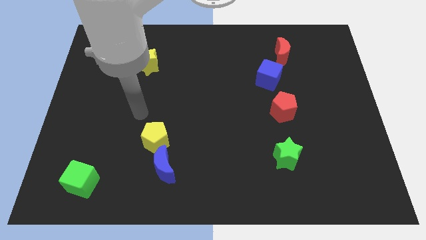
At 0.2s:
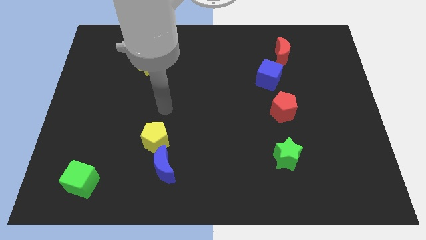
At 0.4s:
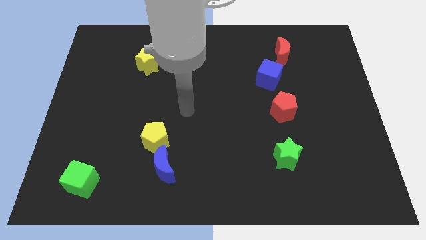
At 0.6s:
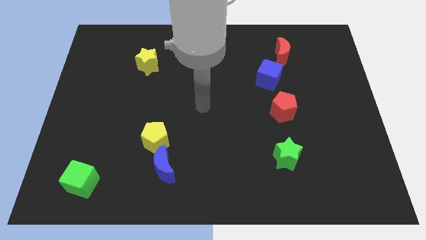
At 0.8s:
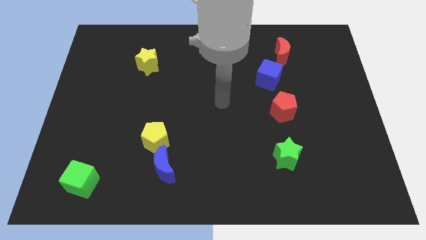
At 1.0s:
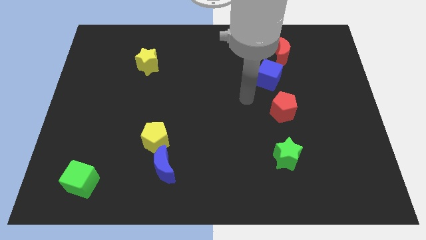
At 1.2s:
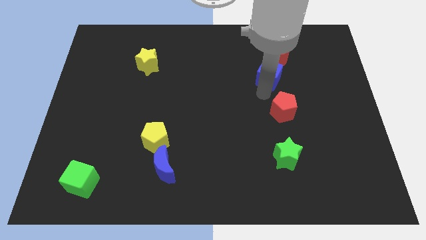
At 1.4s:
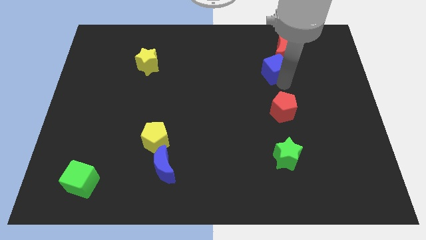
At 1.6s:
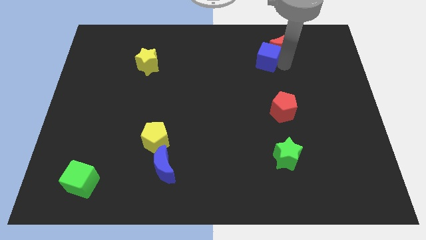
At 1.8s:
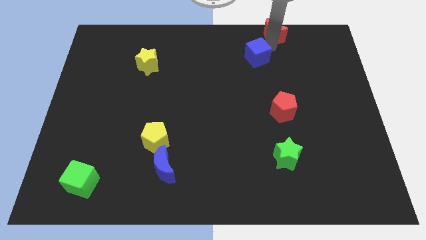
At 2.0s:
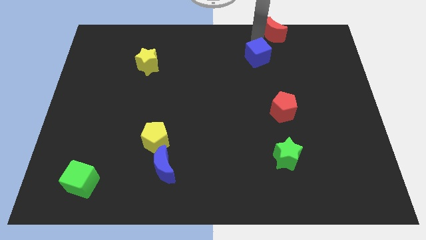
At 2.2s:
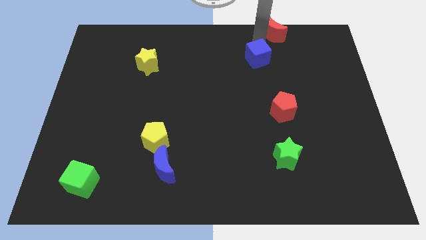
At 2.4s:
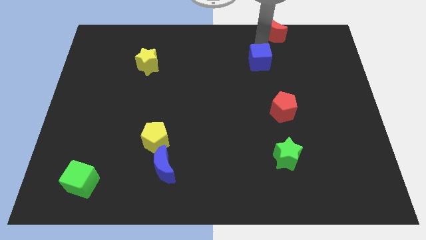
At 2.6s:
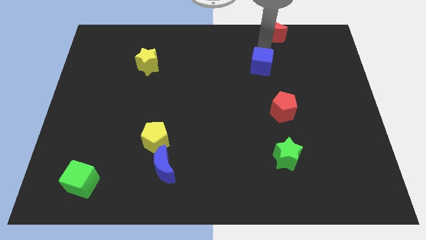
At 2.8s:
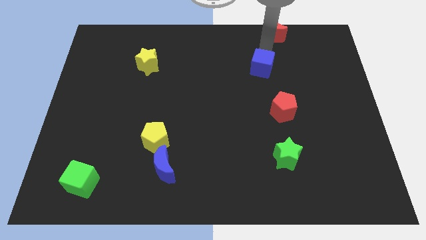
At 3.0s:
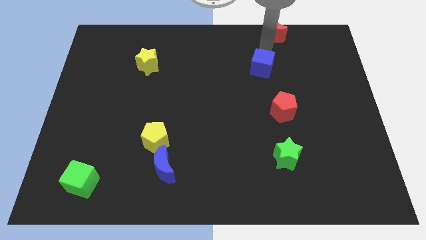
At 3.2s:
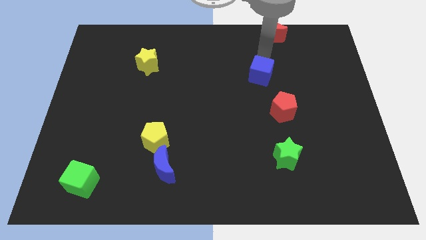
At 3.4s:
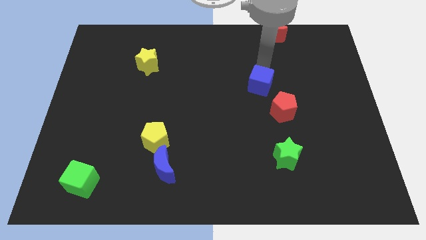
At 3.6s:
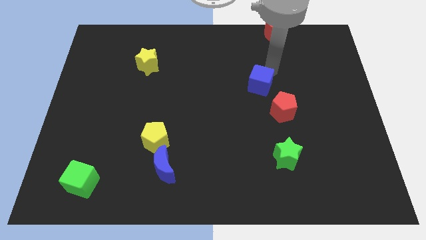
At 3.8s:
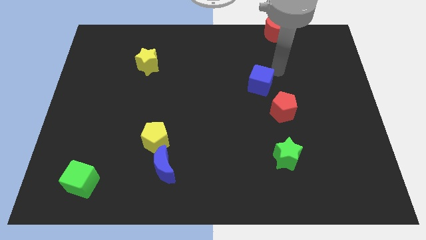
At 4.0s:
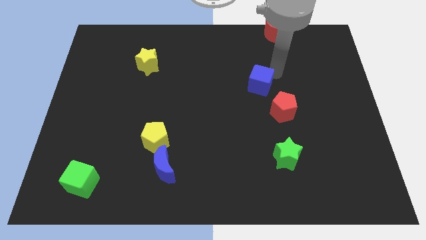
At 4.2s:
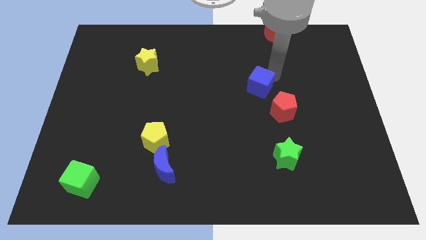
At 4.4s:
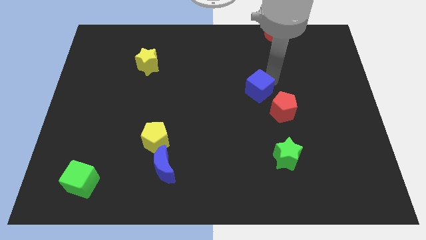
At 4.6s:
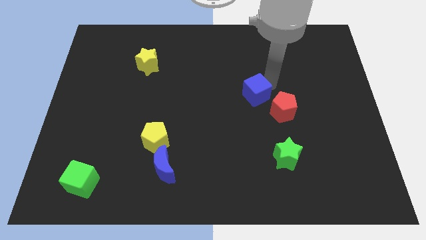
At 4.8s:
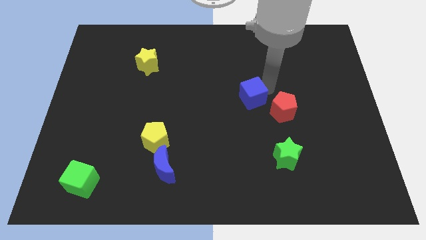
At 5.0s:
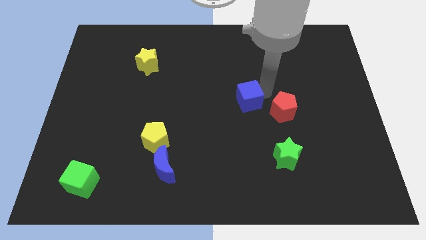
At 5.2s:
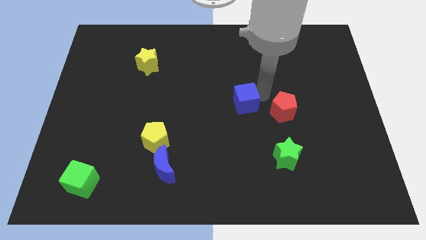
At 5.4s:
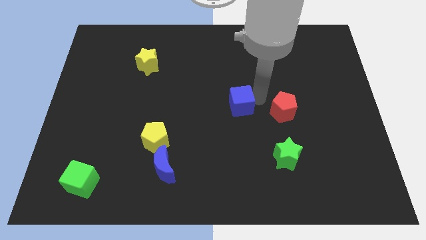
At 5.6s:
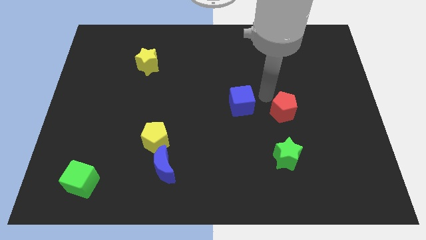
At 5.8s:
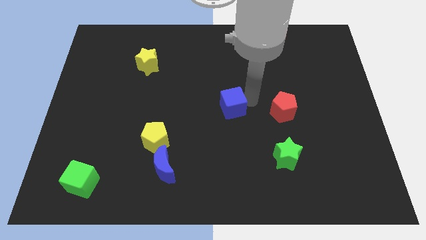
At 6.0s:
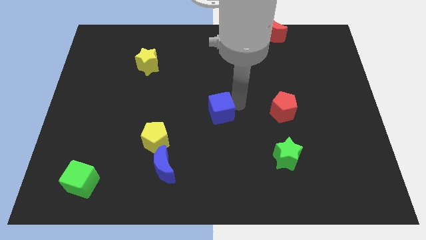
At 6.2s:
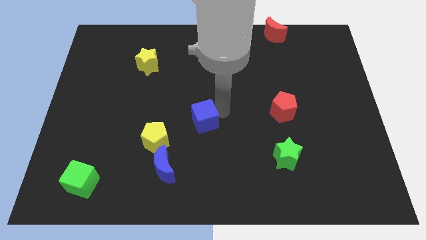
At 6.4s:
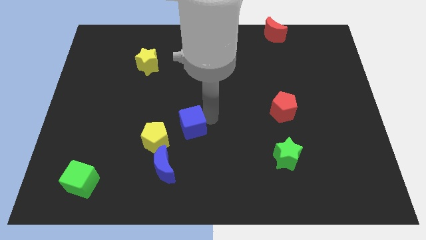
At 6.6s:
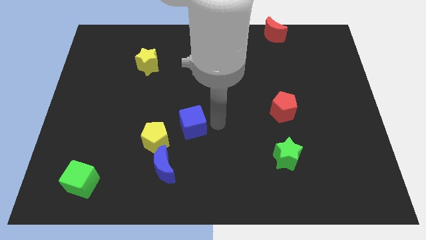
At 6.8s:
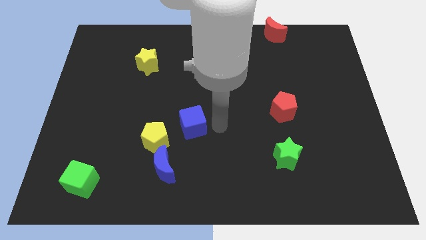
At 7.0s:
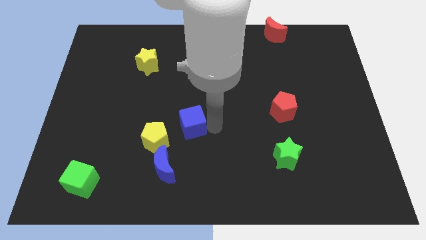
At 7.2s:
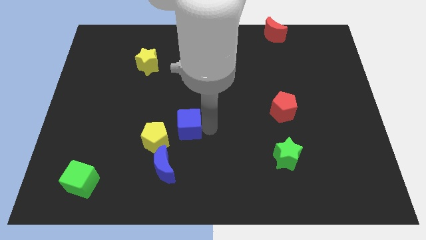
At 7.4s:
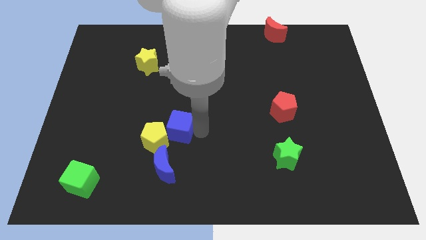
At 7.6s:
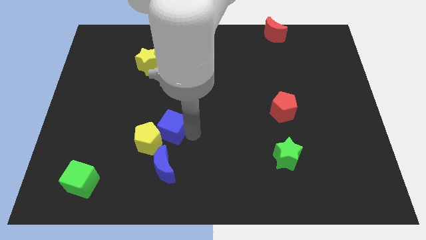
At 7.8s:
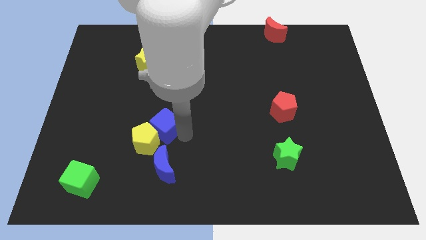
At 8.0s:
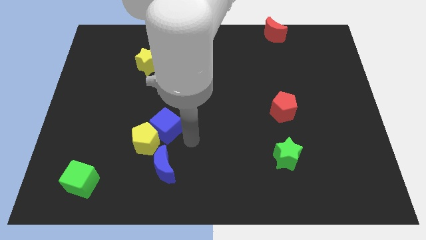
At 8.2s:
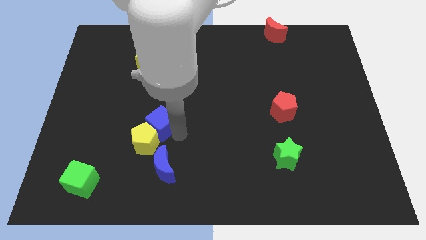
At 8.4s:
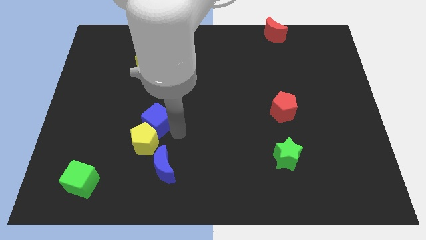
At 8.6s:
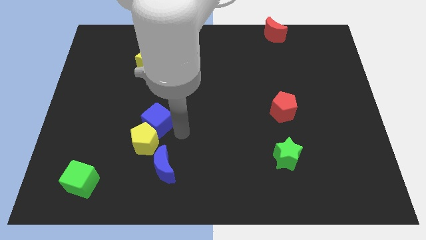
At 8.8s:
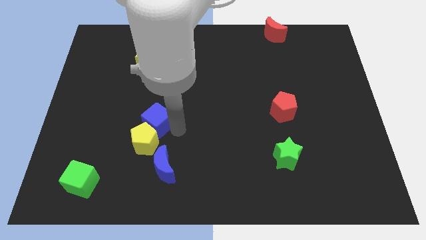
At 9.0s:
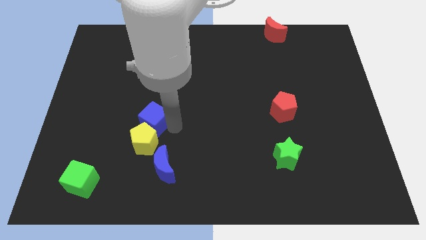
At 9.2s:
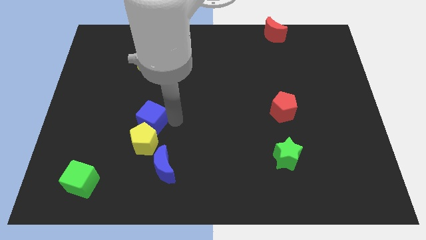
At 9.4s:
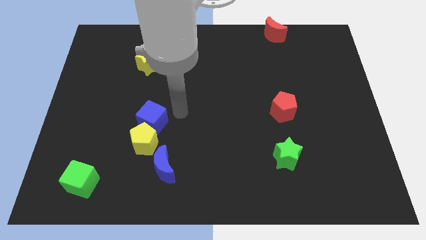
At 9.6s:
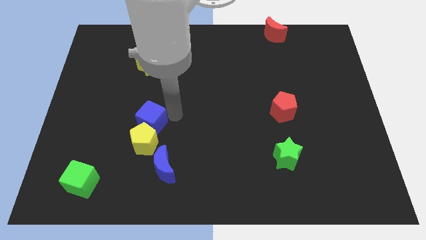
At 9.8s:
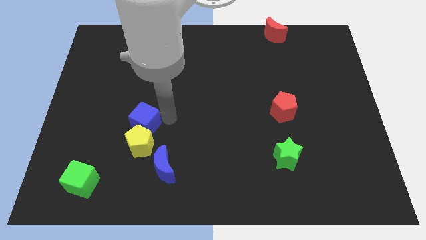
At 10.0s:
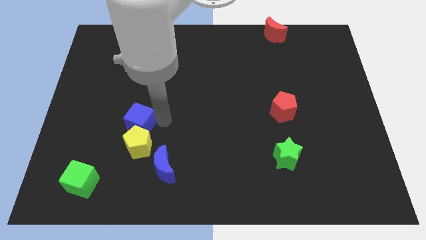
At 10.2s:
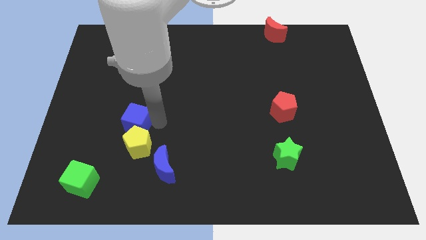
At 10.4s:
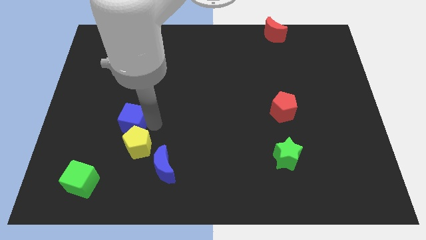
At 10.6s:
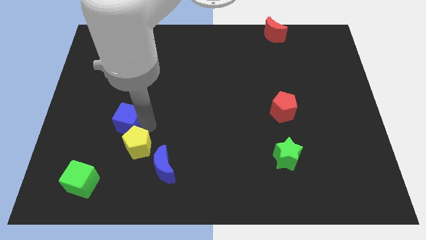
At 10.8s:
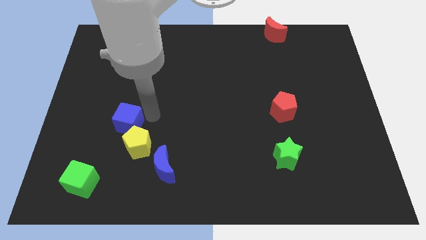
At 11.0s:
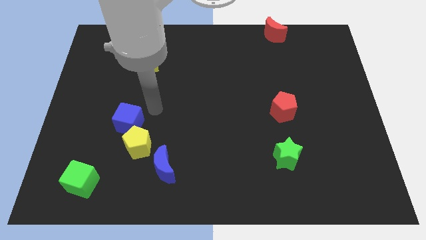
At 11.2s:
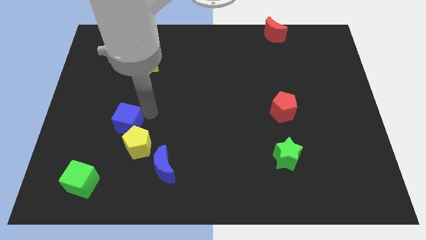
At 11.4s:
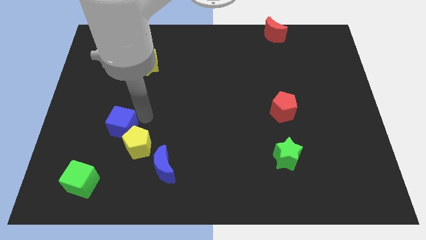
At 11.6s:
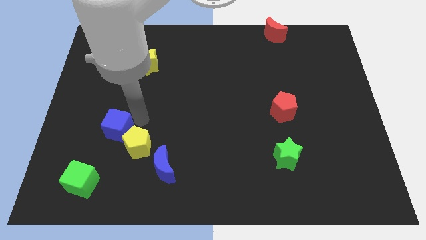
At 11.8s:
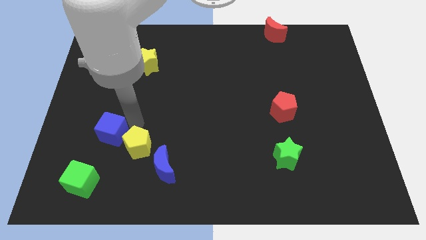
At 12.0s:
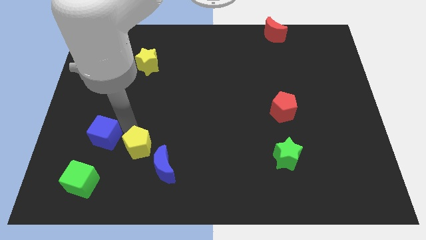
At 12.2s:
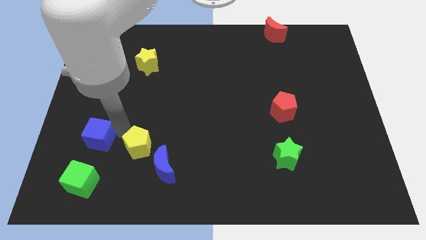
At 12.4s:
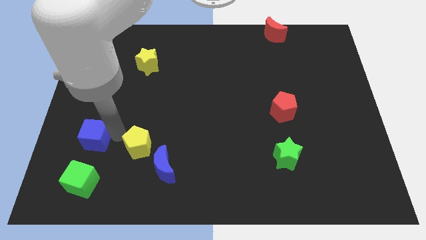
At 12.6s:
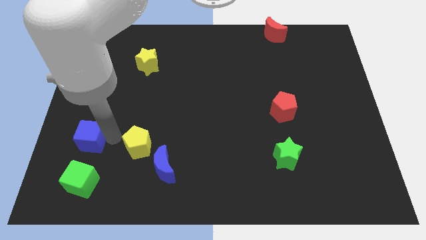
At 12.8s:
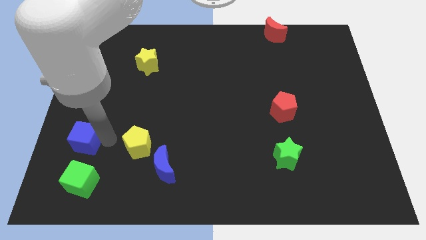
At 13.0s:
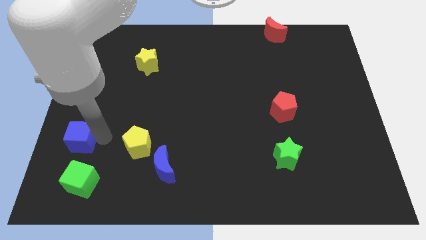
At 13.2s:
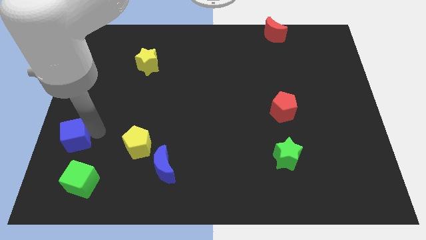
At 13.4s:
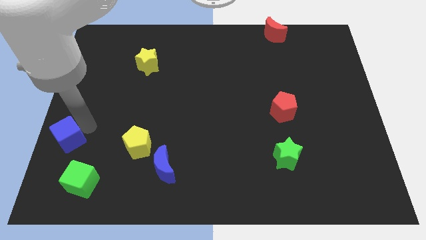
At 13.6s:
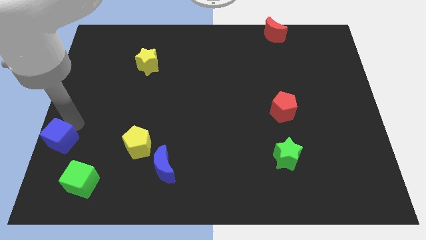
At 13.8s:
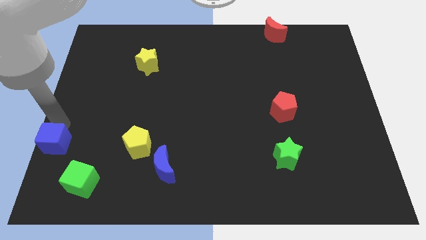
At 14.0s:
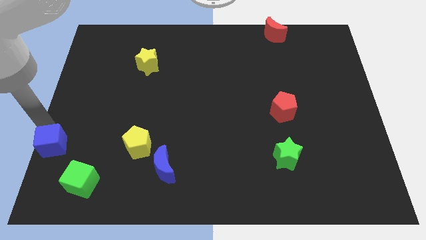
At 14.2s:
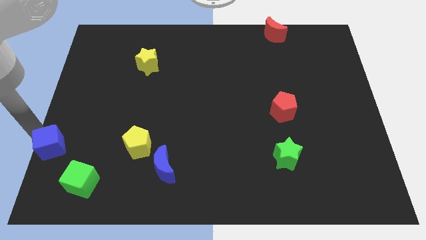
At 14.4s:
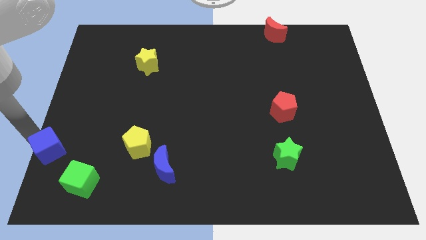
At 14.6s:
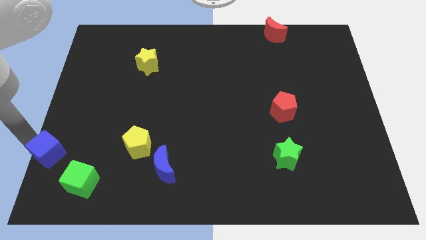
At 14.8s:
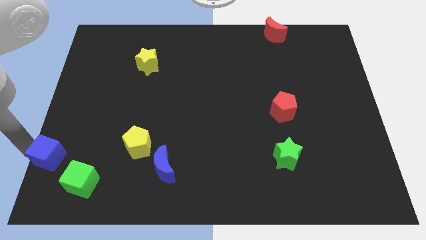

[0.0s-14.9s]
slide the blue cube to the bottom left corner
